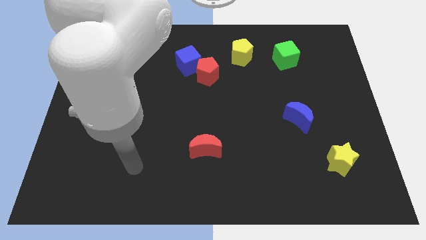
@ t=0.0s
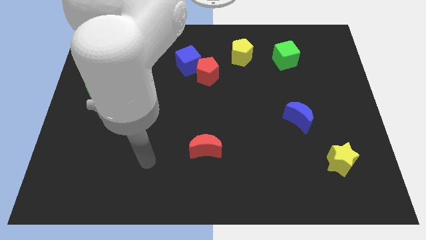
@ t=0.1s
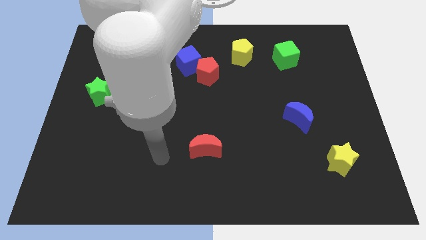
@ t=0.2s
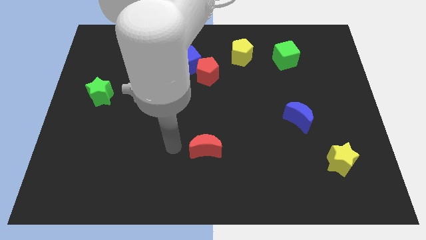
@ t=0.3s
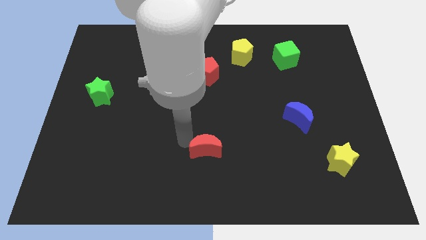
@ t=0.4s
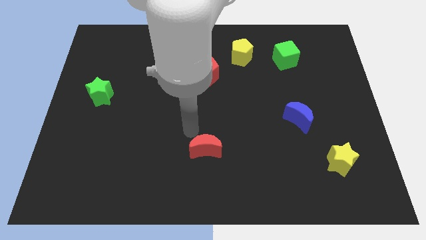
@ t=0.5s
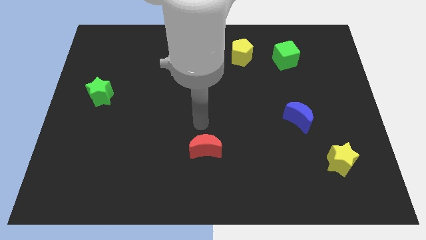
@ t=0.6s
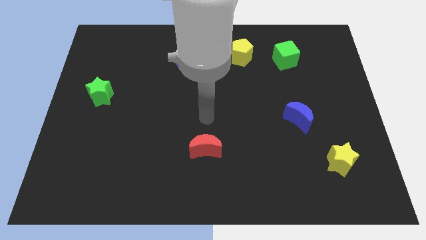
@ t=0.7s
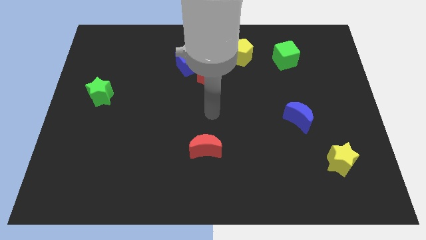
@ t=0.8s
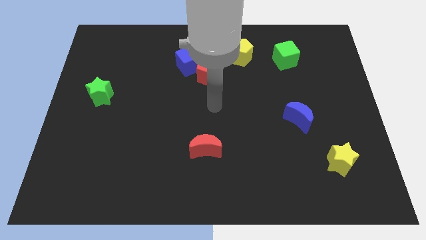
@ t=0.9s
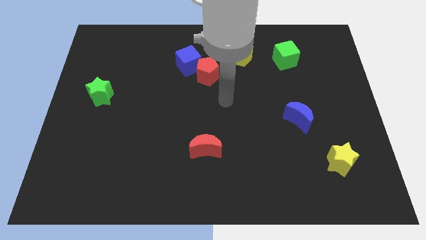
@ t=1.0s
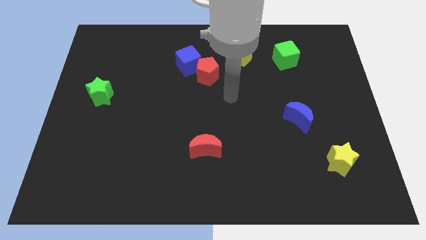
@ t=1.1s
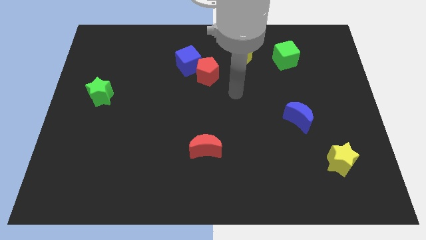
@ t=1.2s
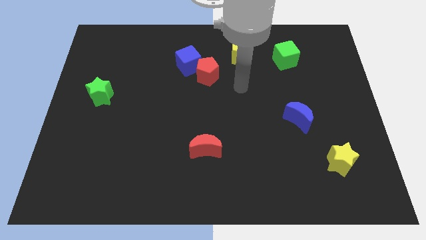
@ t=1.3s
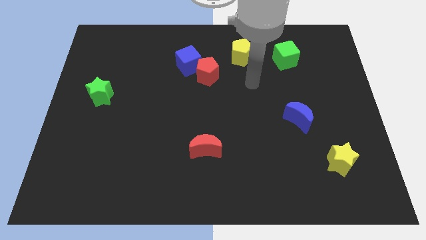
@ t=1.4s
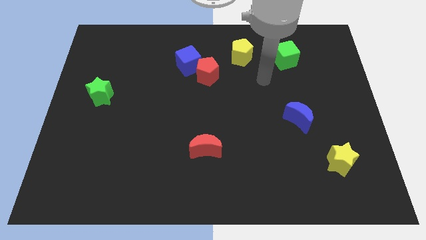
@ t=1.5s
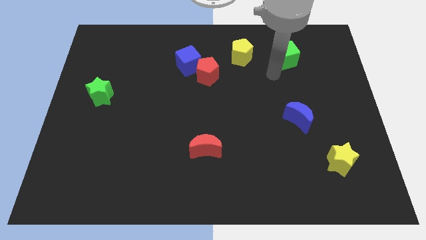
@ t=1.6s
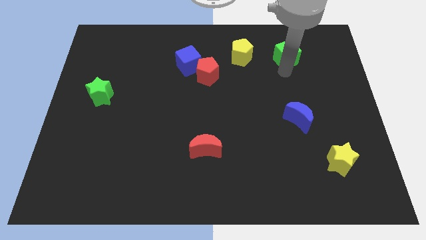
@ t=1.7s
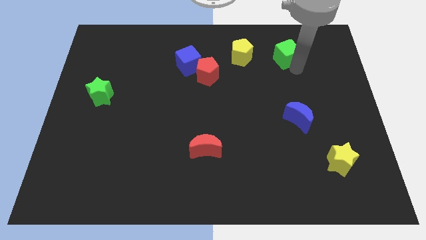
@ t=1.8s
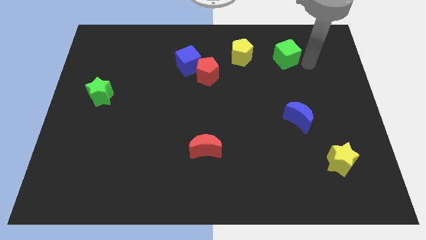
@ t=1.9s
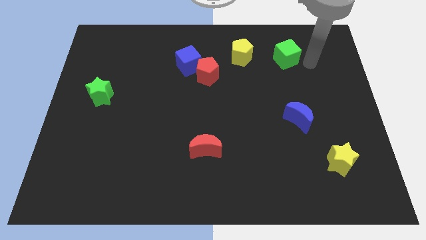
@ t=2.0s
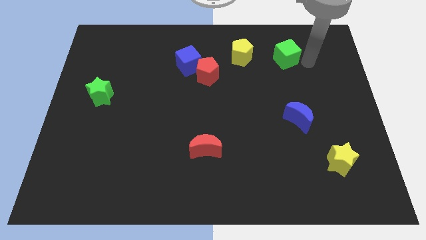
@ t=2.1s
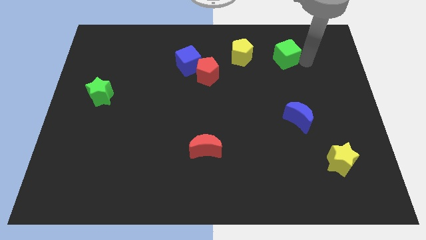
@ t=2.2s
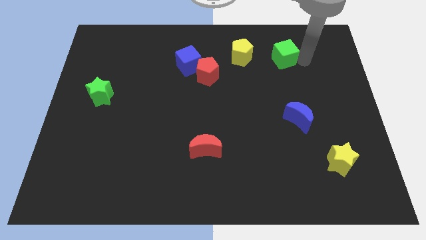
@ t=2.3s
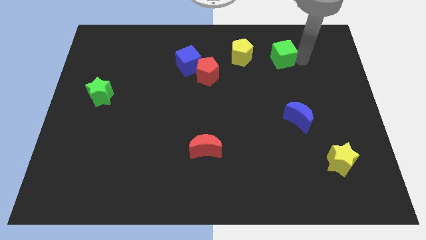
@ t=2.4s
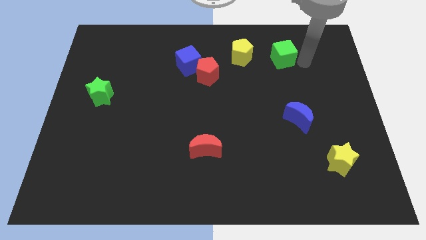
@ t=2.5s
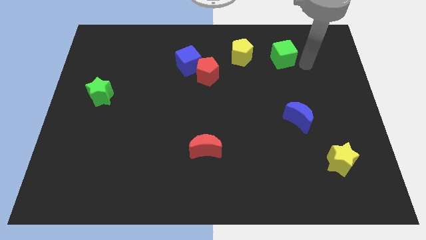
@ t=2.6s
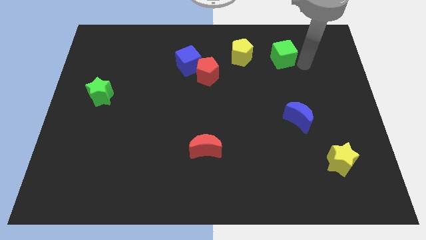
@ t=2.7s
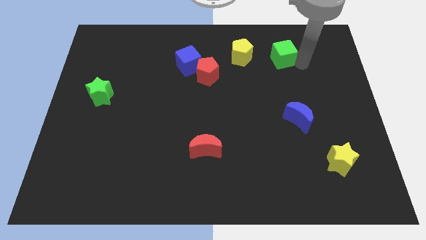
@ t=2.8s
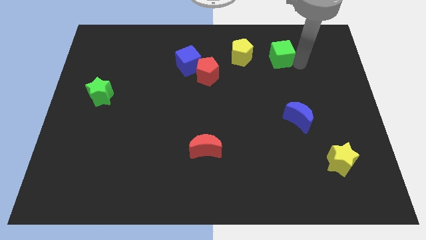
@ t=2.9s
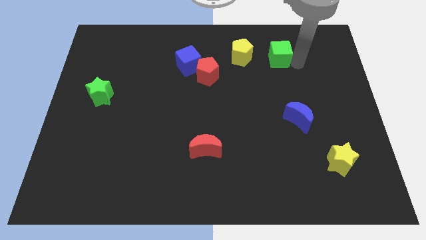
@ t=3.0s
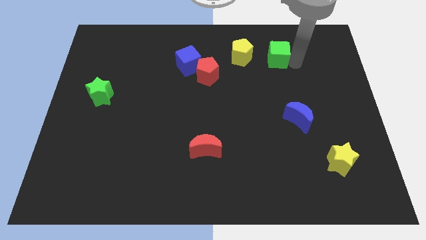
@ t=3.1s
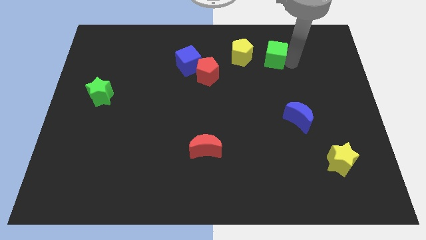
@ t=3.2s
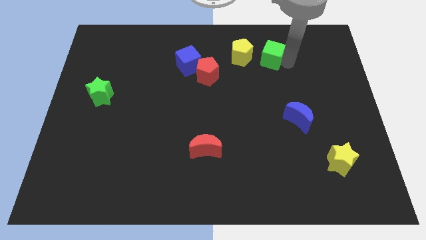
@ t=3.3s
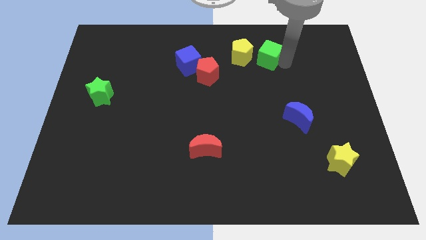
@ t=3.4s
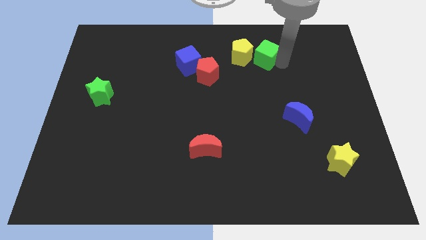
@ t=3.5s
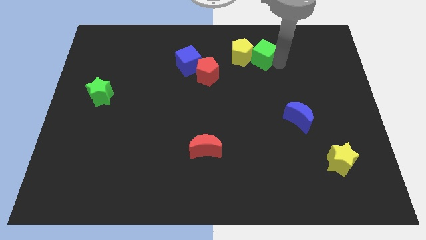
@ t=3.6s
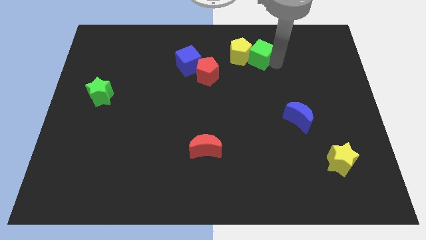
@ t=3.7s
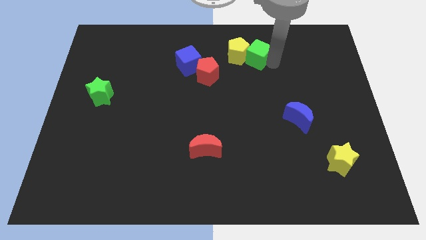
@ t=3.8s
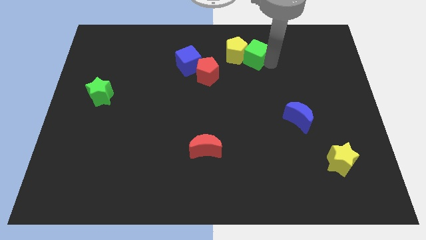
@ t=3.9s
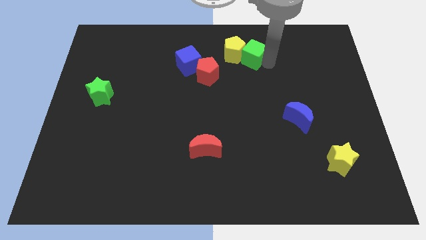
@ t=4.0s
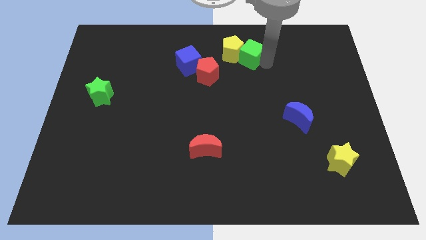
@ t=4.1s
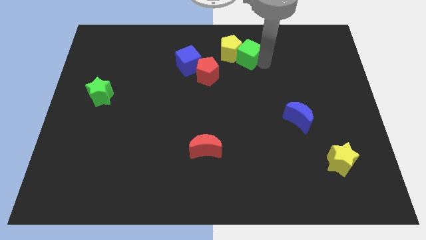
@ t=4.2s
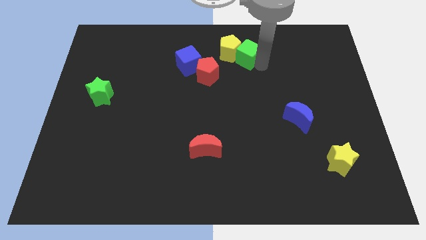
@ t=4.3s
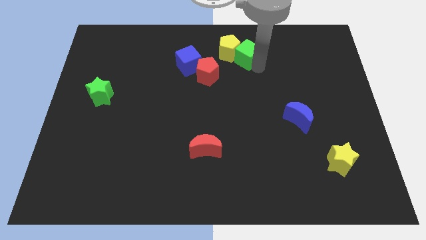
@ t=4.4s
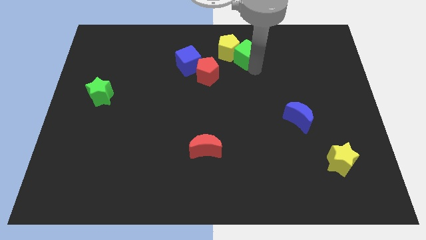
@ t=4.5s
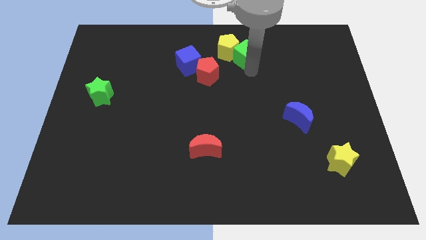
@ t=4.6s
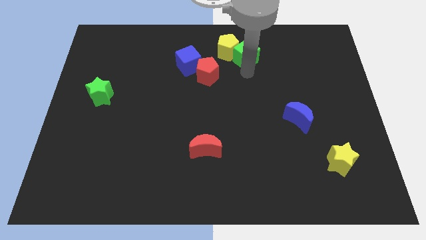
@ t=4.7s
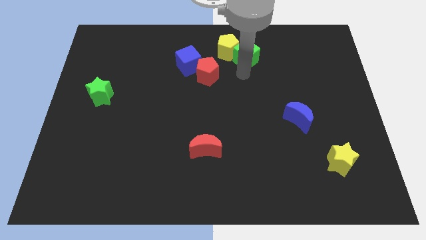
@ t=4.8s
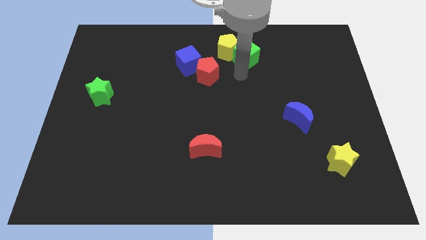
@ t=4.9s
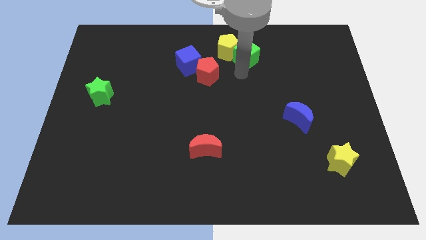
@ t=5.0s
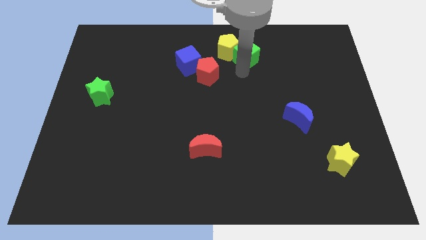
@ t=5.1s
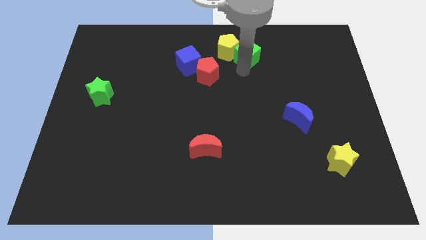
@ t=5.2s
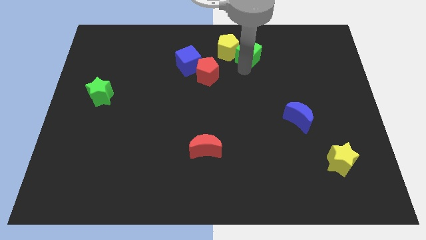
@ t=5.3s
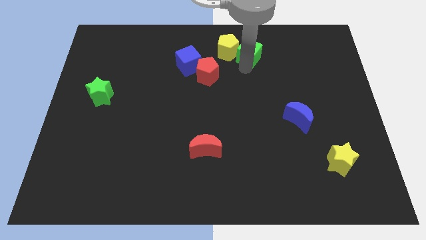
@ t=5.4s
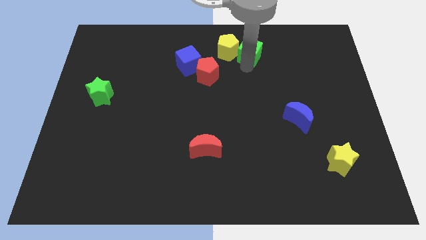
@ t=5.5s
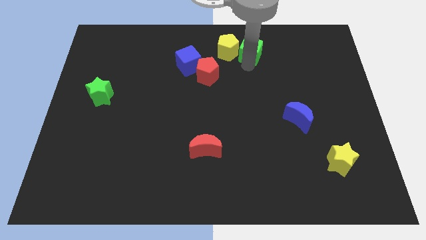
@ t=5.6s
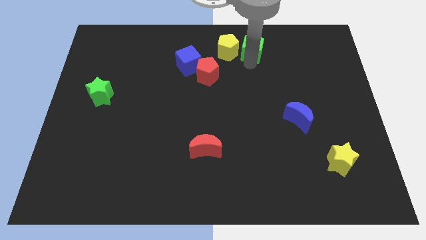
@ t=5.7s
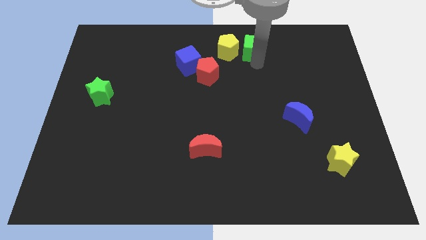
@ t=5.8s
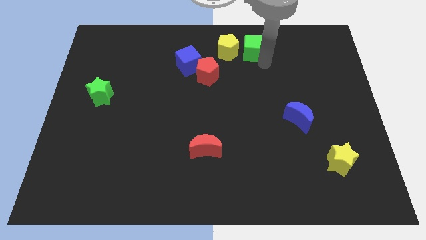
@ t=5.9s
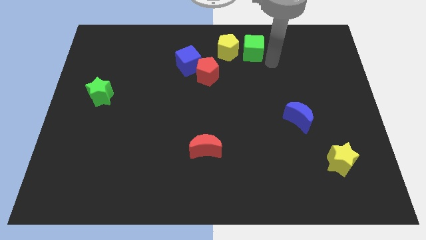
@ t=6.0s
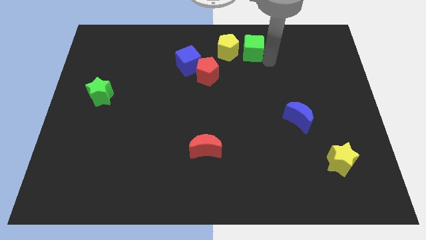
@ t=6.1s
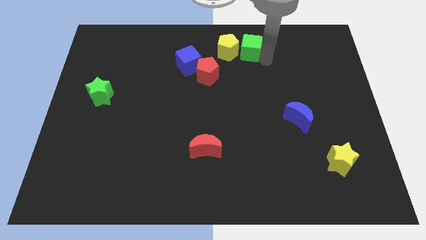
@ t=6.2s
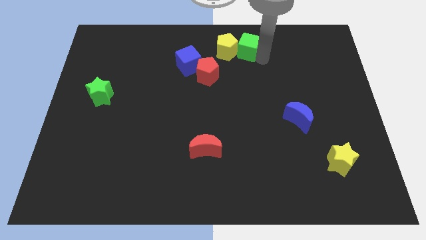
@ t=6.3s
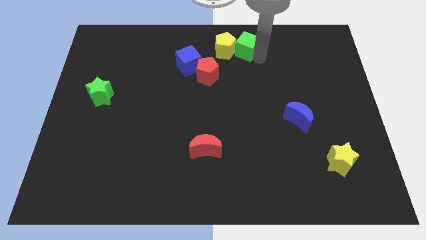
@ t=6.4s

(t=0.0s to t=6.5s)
push the green cube to the top side
